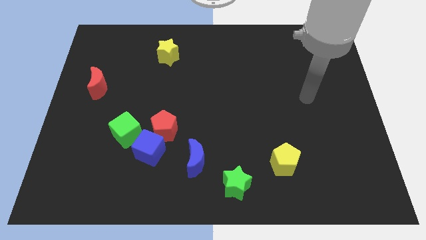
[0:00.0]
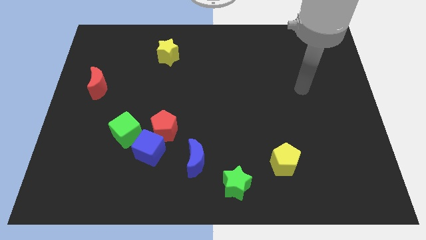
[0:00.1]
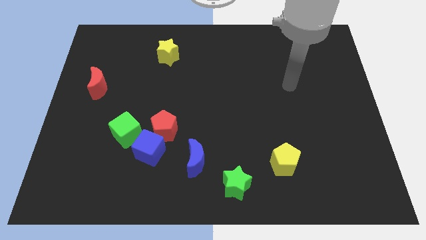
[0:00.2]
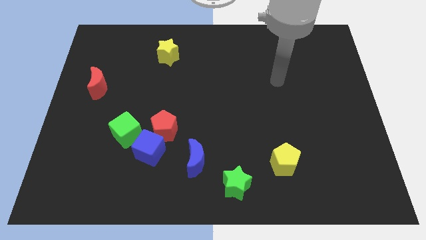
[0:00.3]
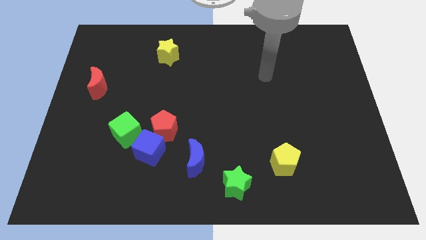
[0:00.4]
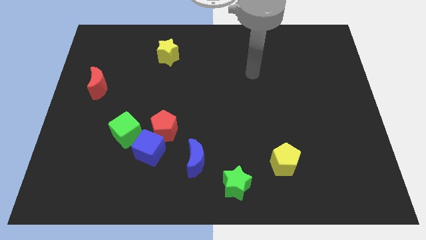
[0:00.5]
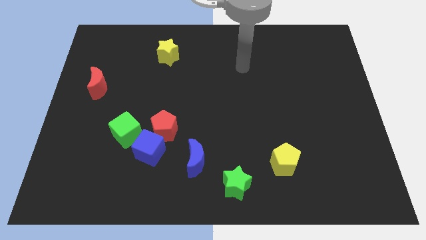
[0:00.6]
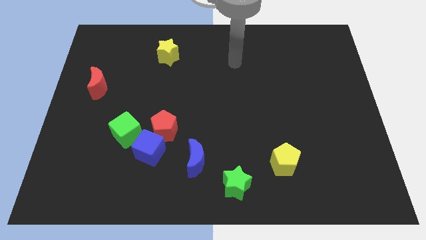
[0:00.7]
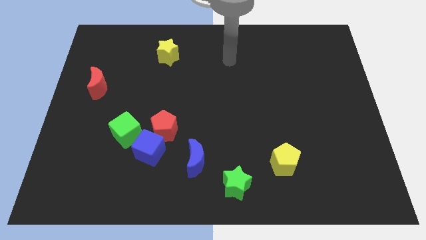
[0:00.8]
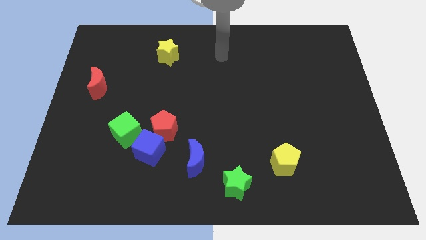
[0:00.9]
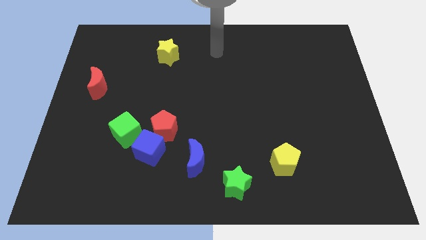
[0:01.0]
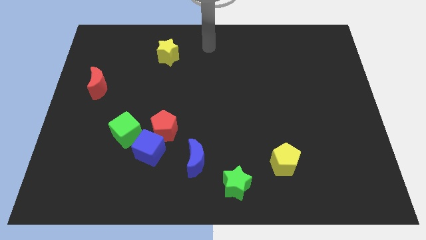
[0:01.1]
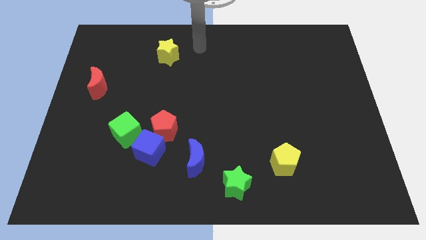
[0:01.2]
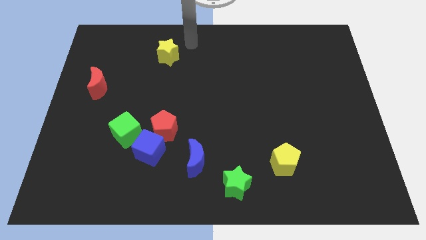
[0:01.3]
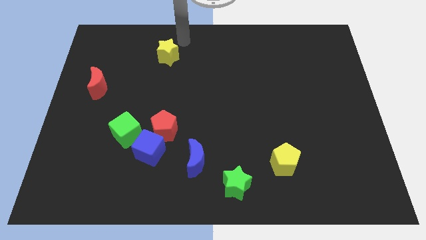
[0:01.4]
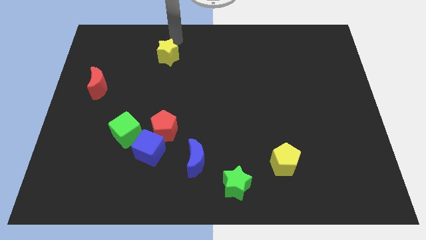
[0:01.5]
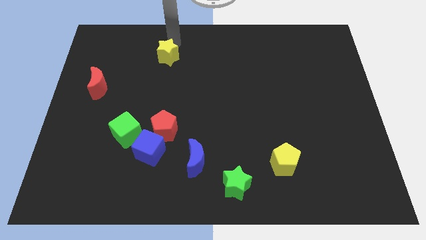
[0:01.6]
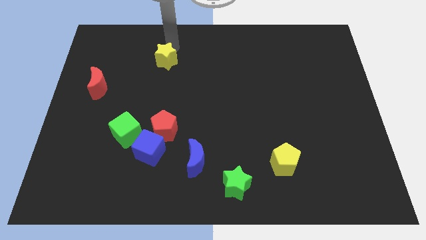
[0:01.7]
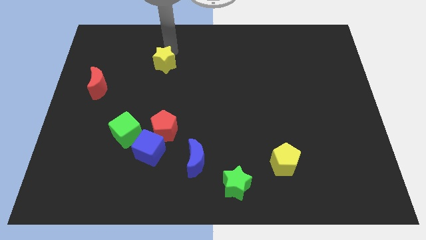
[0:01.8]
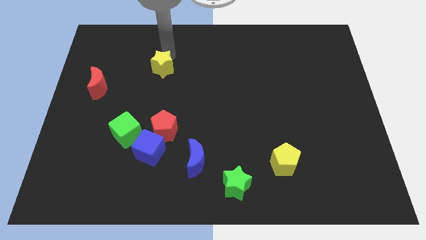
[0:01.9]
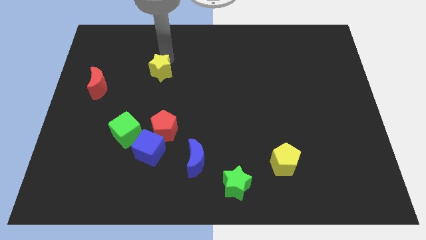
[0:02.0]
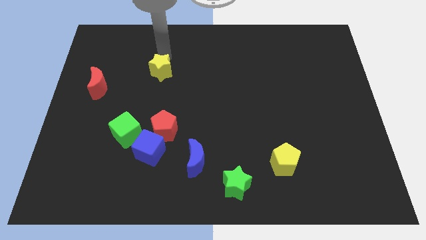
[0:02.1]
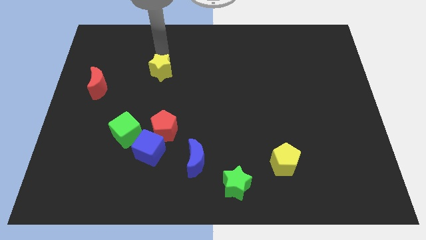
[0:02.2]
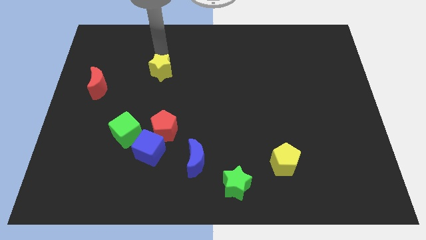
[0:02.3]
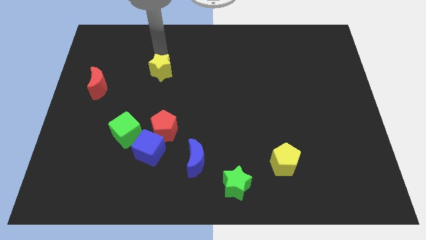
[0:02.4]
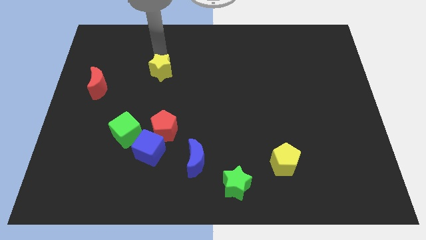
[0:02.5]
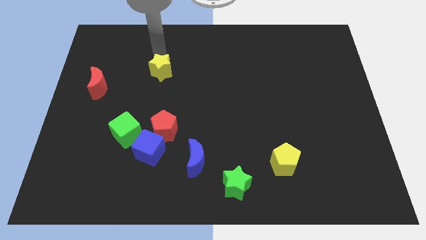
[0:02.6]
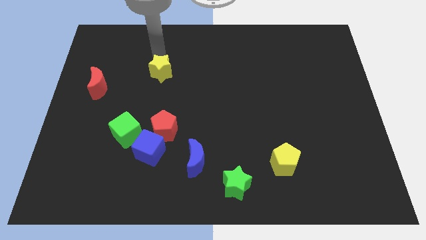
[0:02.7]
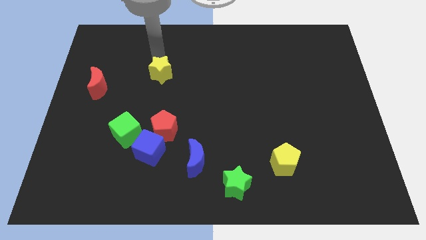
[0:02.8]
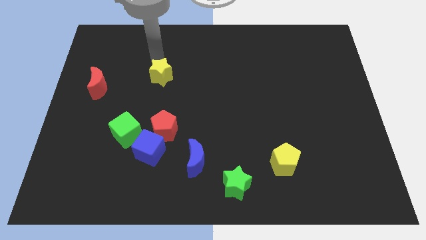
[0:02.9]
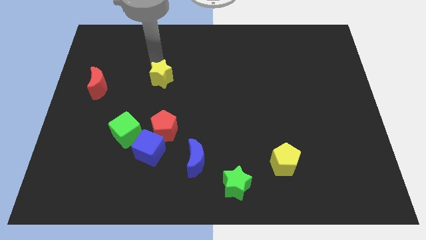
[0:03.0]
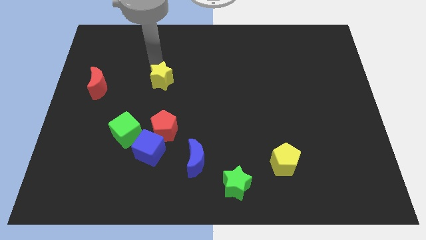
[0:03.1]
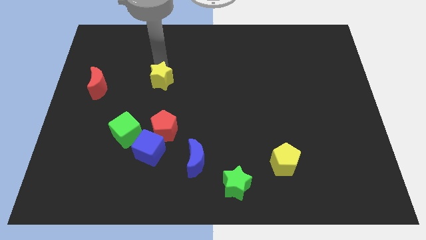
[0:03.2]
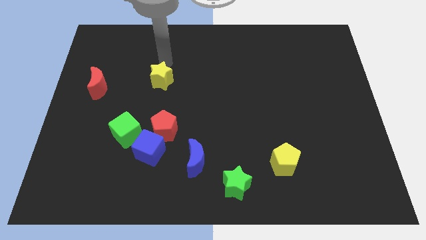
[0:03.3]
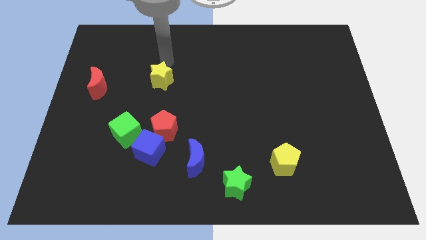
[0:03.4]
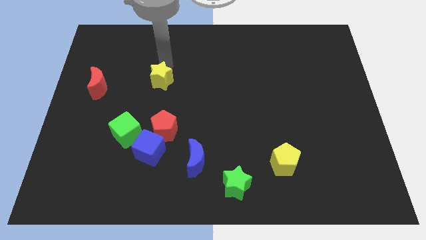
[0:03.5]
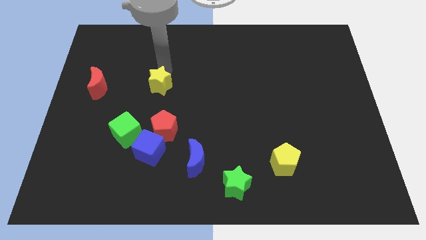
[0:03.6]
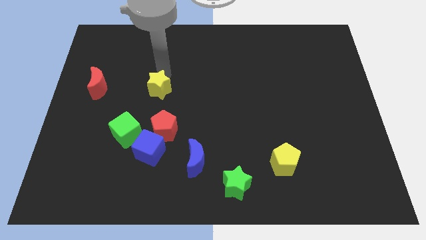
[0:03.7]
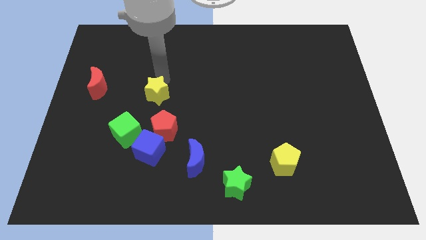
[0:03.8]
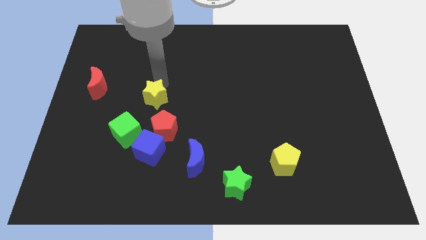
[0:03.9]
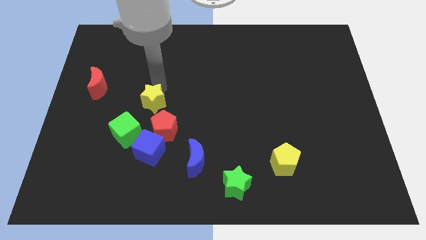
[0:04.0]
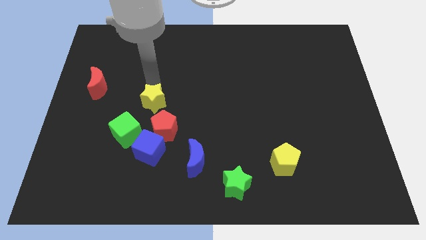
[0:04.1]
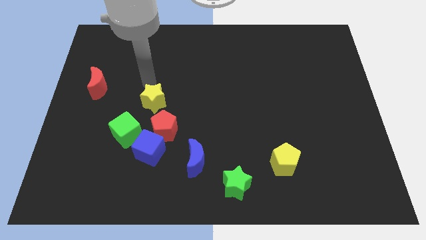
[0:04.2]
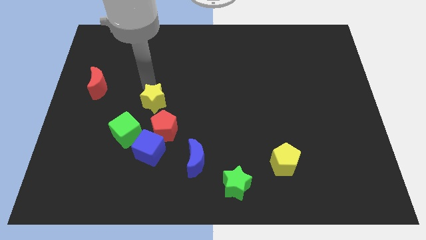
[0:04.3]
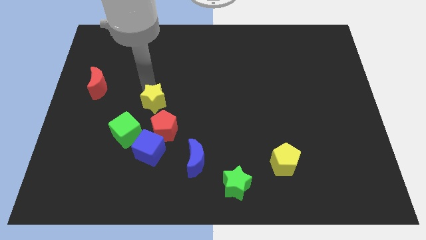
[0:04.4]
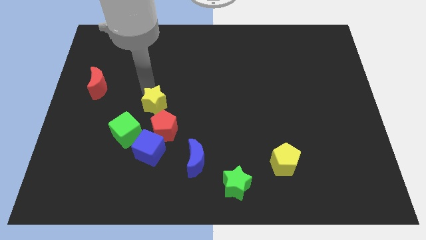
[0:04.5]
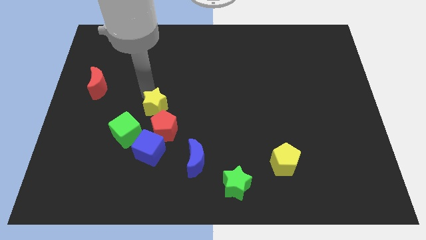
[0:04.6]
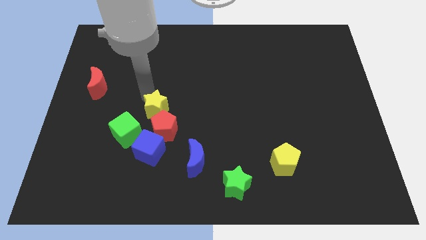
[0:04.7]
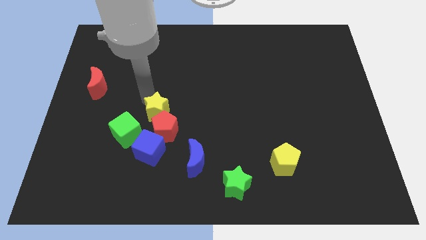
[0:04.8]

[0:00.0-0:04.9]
push the yellow star next to the red pentagon

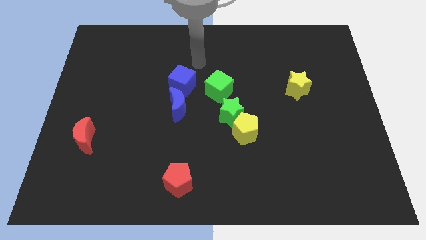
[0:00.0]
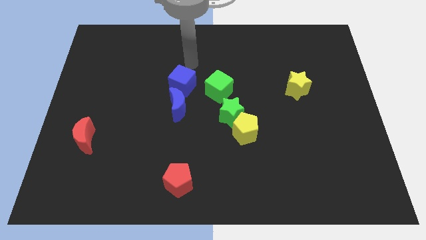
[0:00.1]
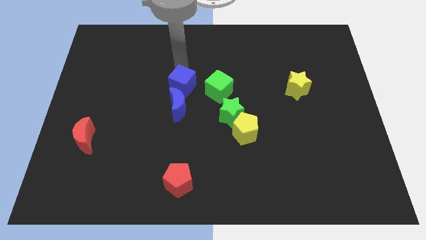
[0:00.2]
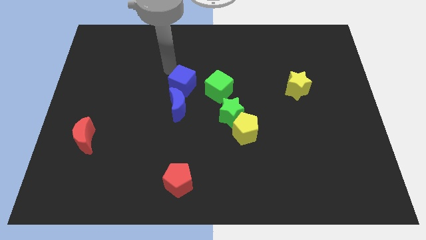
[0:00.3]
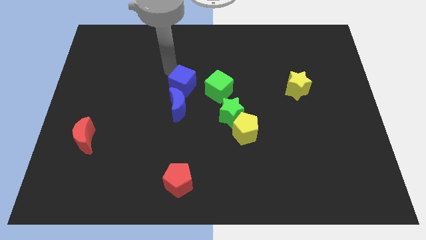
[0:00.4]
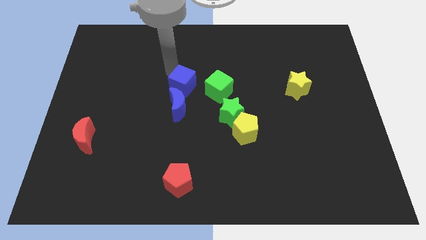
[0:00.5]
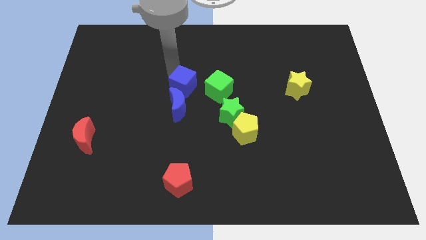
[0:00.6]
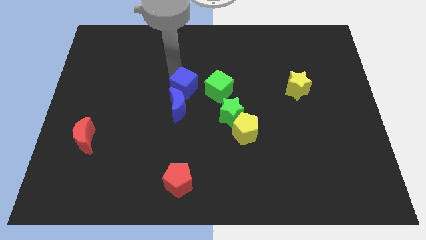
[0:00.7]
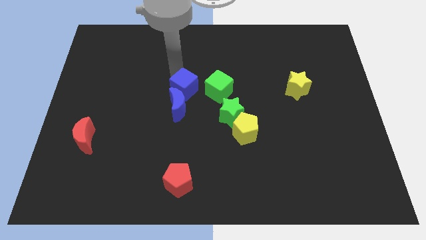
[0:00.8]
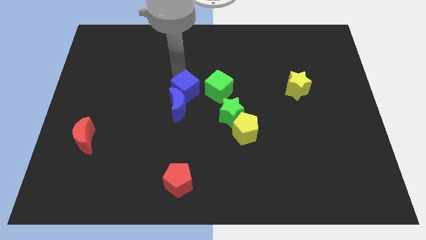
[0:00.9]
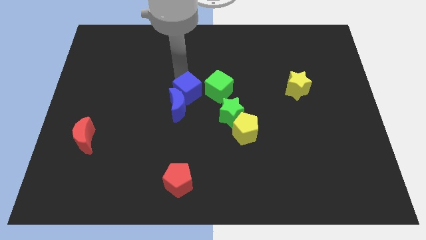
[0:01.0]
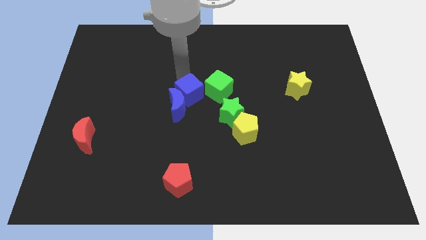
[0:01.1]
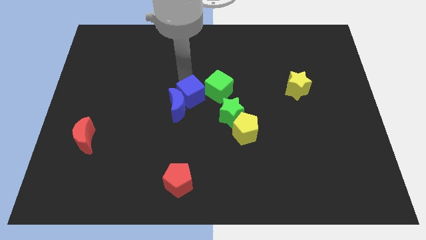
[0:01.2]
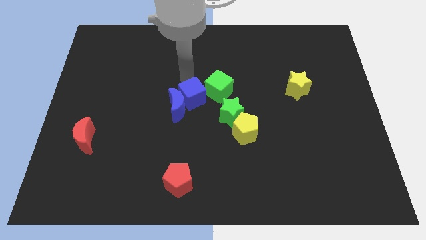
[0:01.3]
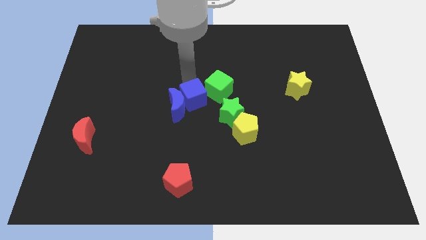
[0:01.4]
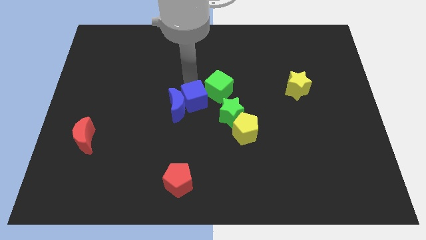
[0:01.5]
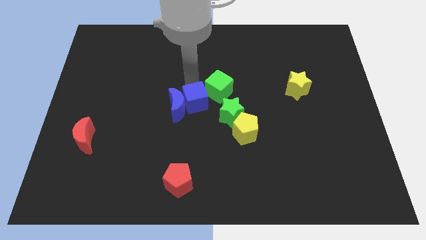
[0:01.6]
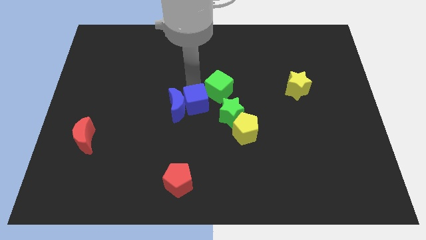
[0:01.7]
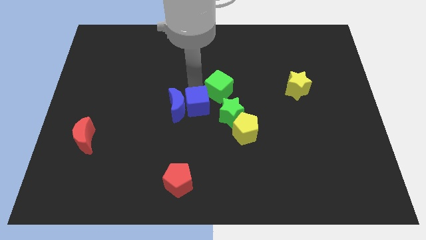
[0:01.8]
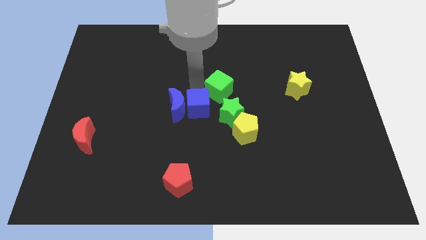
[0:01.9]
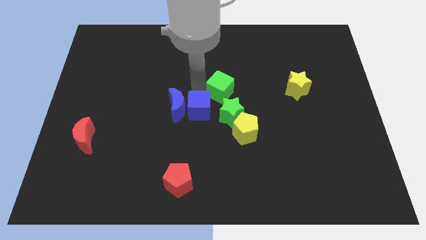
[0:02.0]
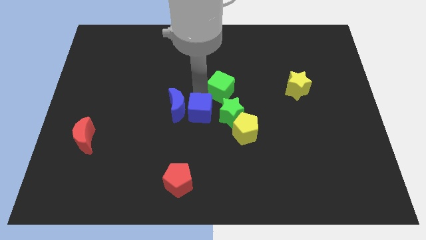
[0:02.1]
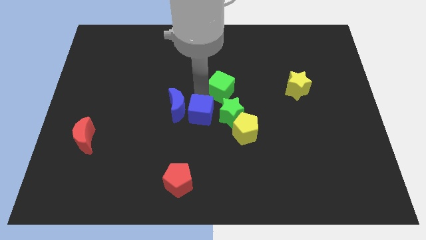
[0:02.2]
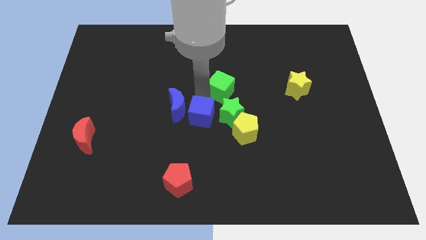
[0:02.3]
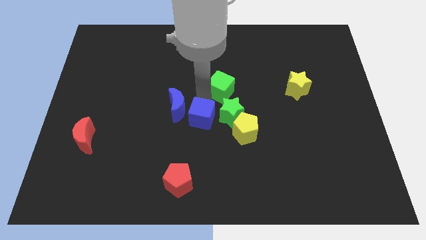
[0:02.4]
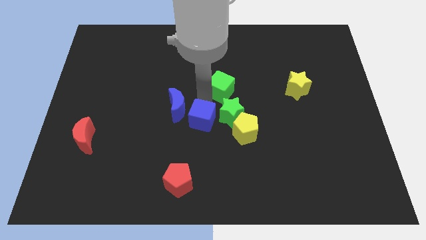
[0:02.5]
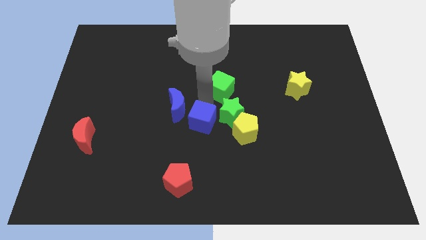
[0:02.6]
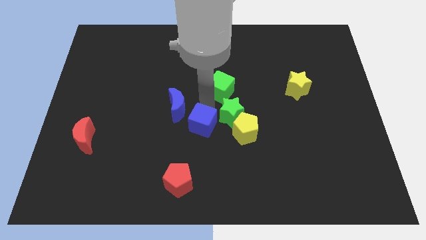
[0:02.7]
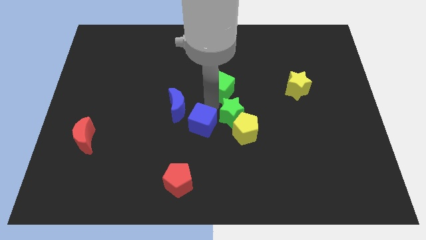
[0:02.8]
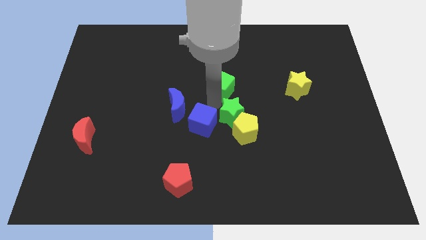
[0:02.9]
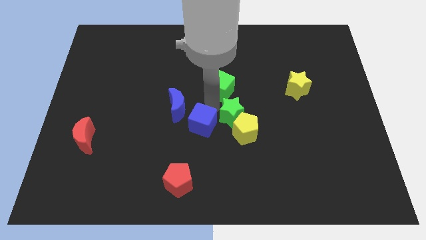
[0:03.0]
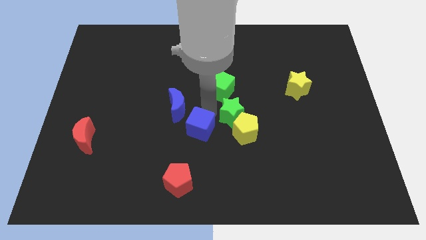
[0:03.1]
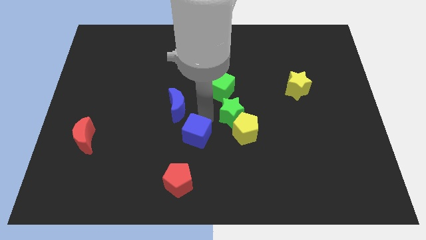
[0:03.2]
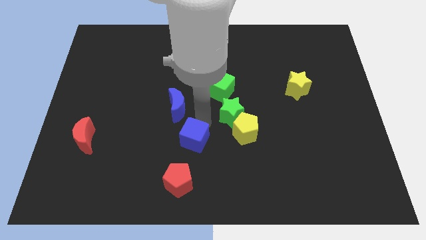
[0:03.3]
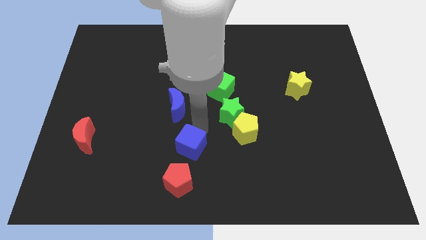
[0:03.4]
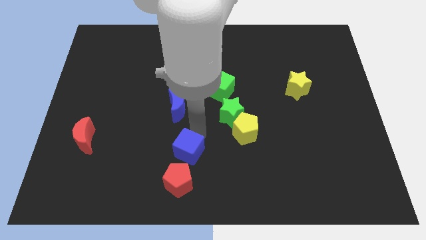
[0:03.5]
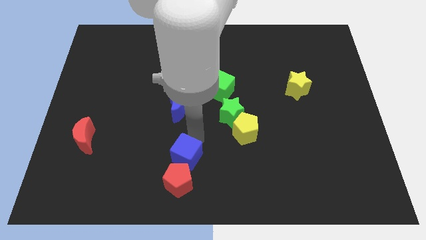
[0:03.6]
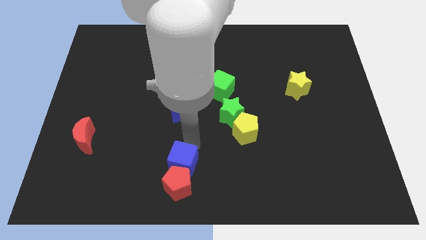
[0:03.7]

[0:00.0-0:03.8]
slide the blue cube next to the red pentagon
